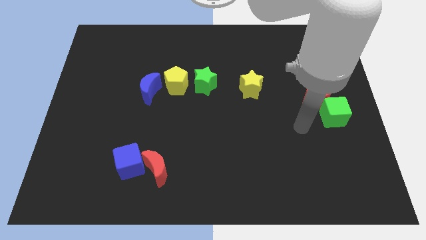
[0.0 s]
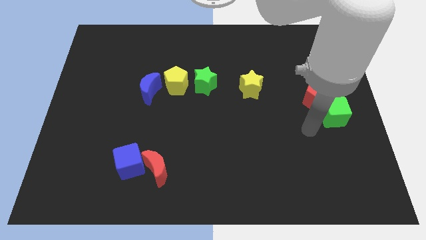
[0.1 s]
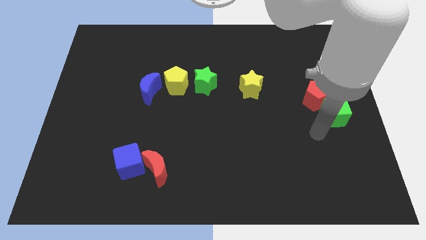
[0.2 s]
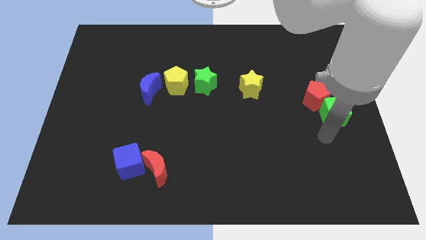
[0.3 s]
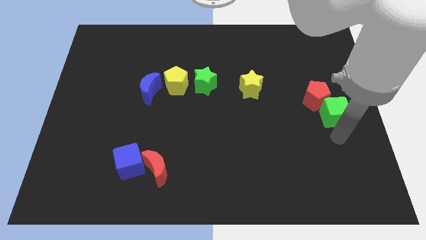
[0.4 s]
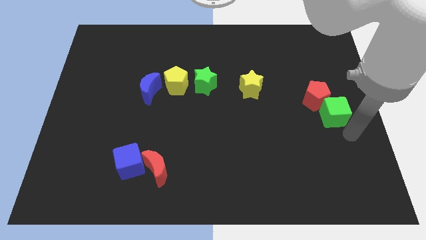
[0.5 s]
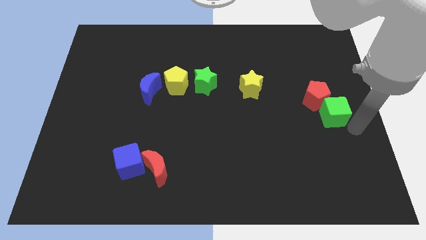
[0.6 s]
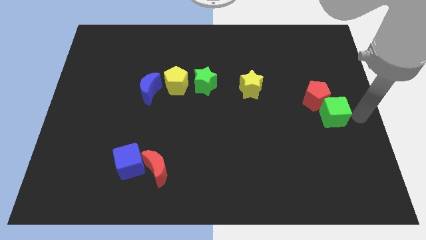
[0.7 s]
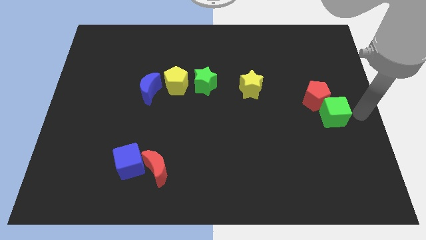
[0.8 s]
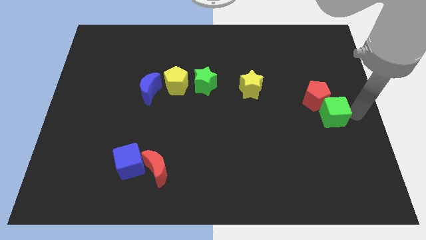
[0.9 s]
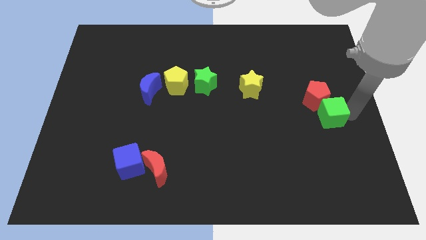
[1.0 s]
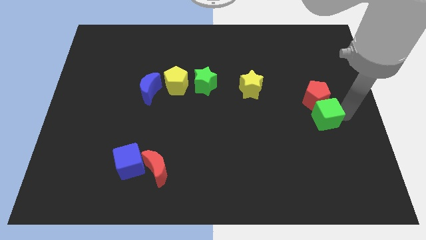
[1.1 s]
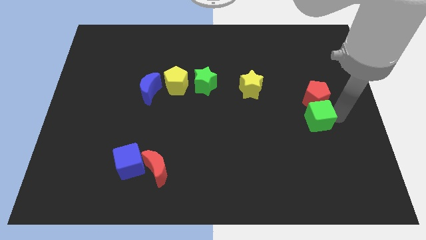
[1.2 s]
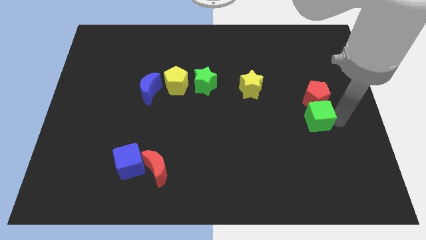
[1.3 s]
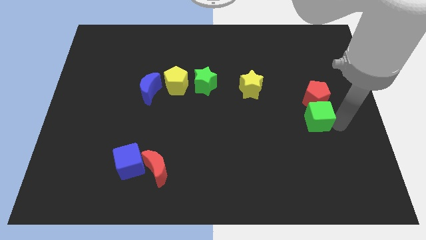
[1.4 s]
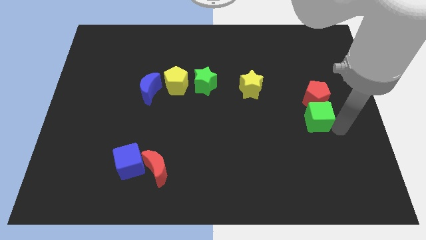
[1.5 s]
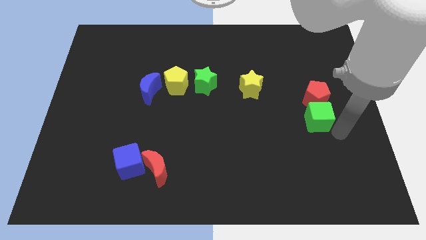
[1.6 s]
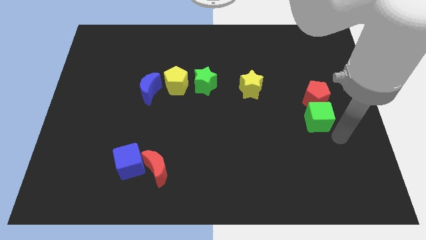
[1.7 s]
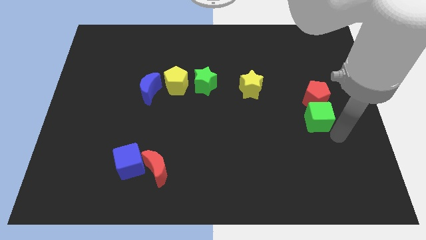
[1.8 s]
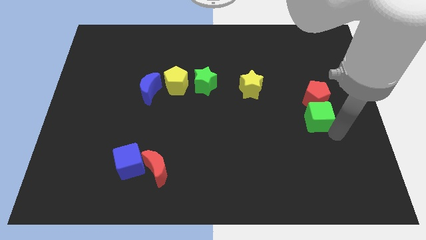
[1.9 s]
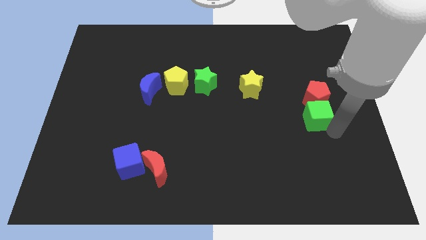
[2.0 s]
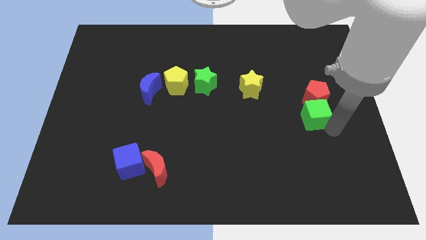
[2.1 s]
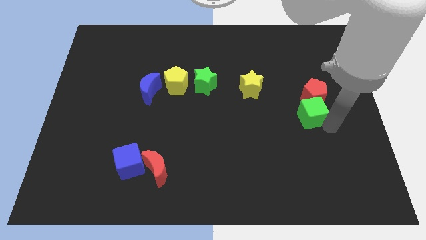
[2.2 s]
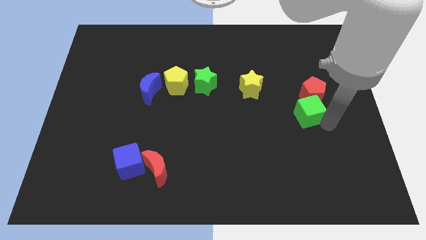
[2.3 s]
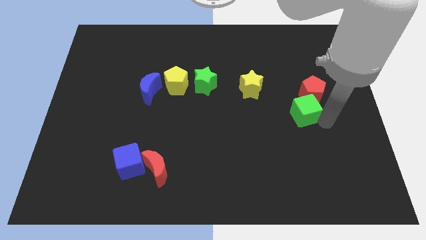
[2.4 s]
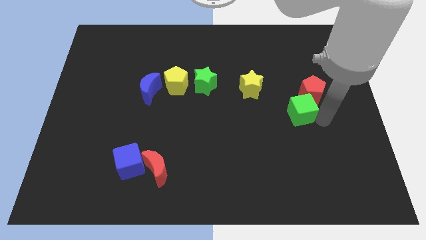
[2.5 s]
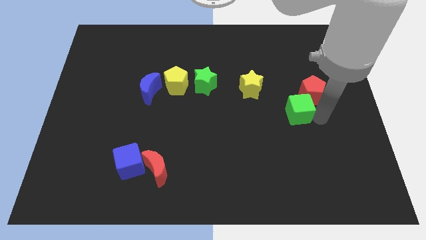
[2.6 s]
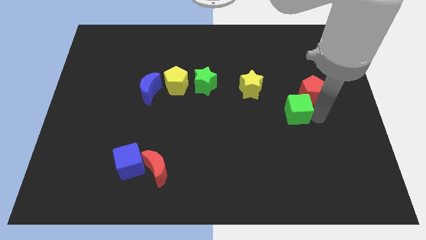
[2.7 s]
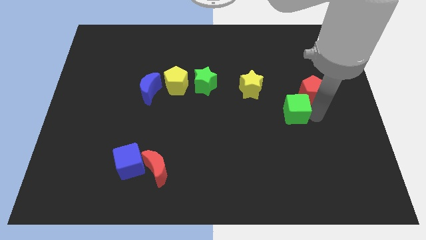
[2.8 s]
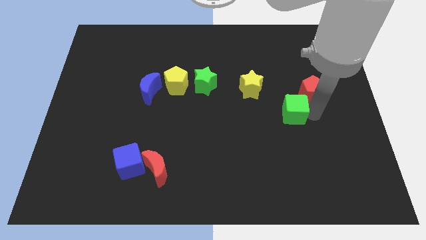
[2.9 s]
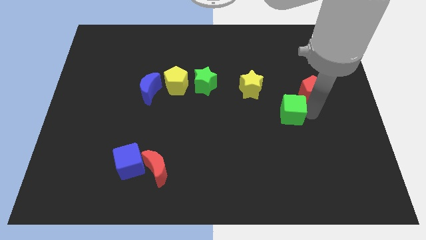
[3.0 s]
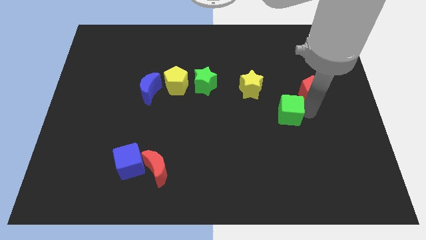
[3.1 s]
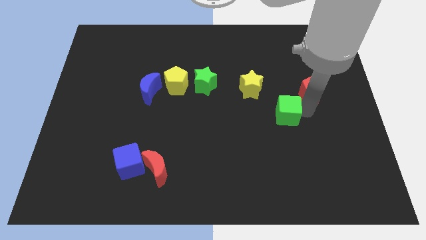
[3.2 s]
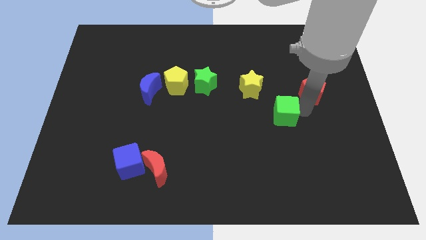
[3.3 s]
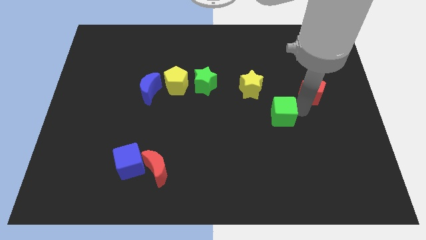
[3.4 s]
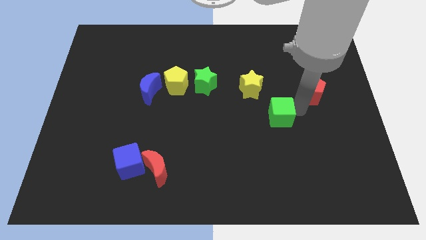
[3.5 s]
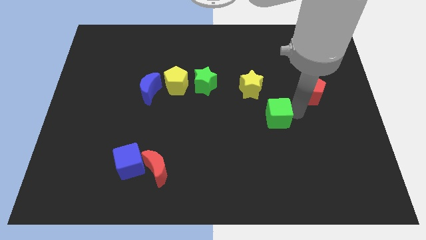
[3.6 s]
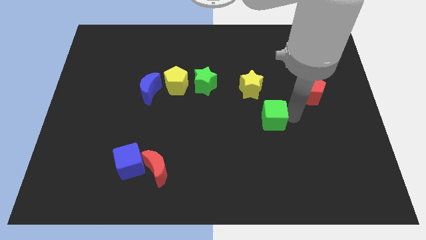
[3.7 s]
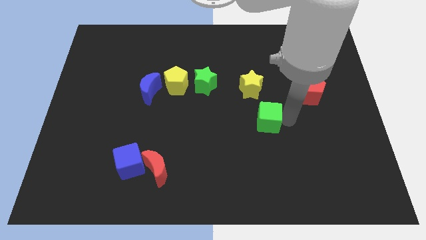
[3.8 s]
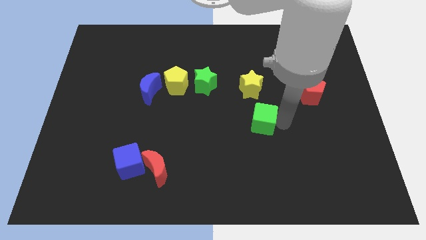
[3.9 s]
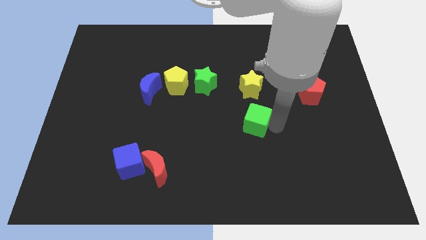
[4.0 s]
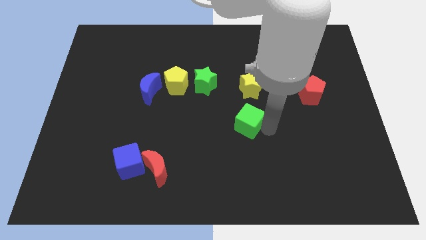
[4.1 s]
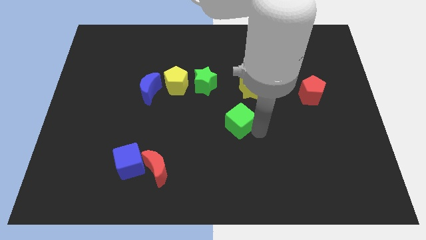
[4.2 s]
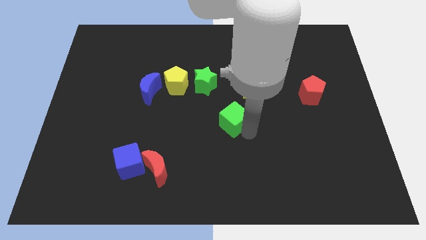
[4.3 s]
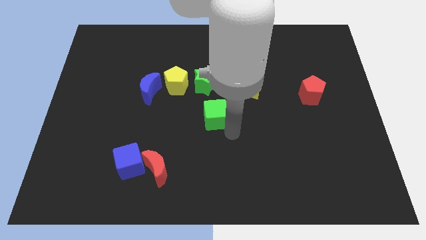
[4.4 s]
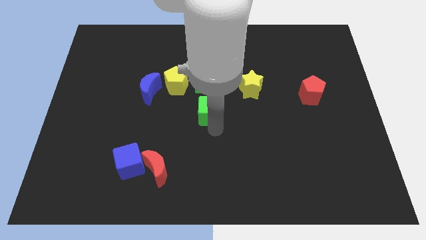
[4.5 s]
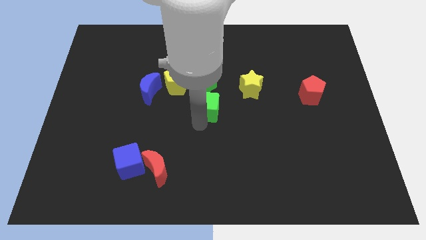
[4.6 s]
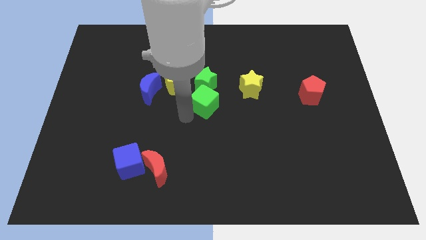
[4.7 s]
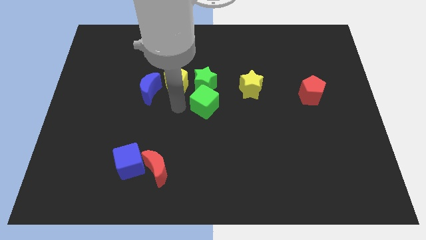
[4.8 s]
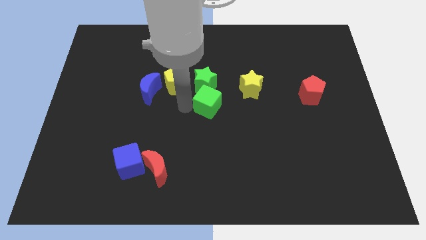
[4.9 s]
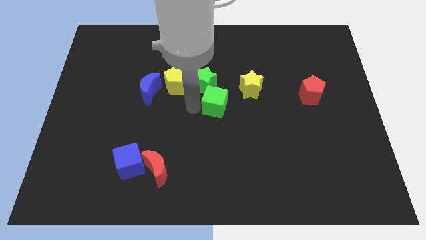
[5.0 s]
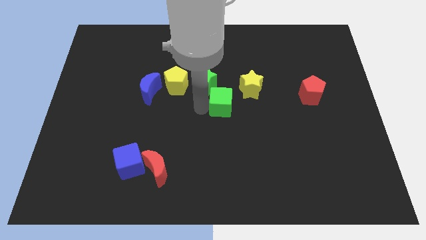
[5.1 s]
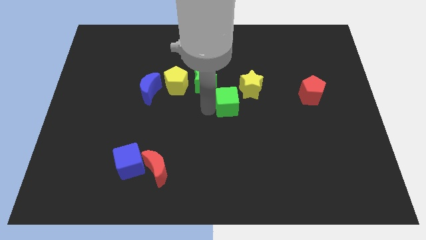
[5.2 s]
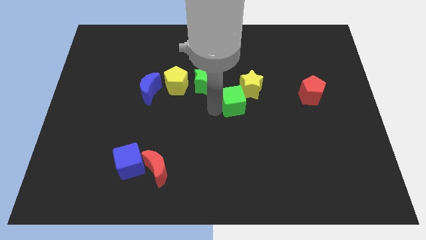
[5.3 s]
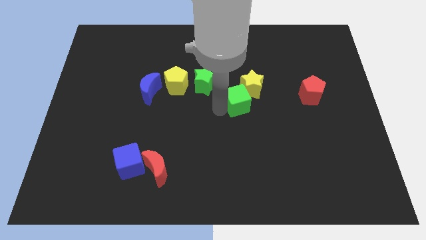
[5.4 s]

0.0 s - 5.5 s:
put the green cube next to the yellow star
